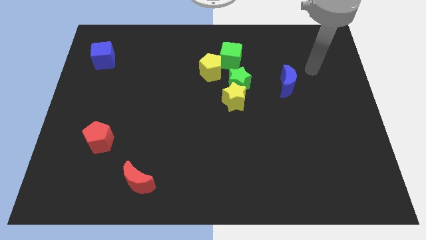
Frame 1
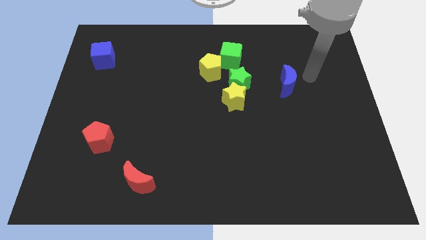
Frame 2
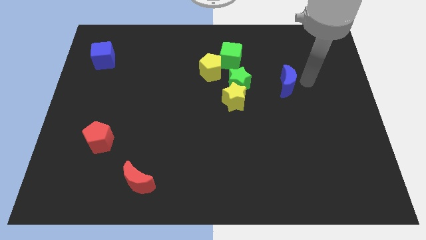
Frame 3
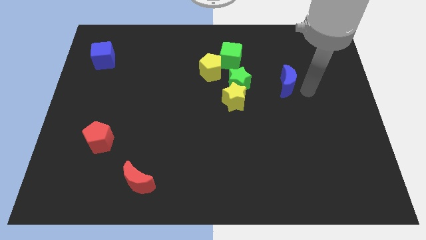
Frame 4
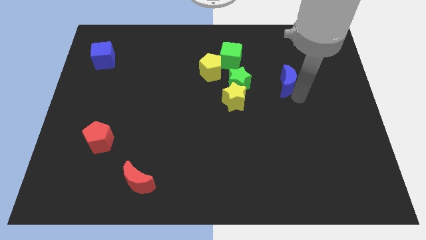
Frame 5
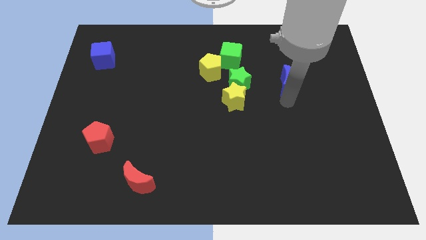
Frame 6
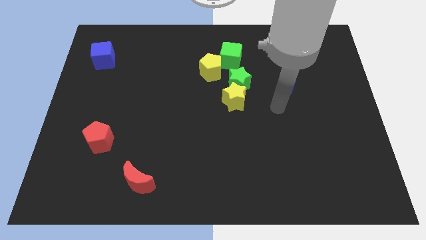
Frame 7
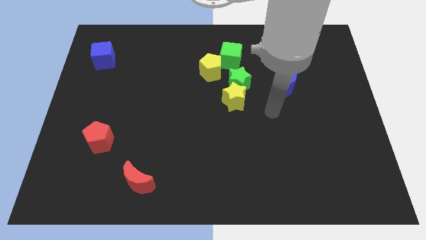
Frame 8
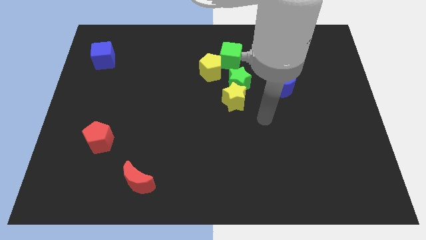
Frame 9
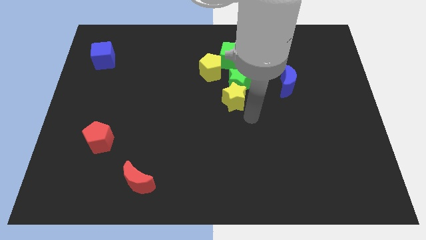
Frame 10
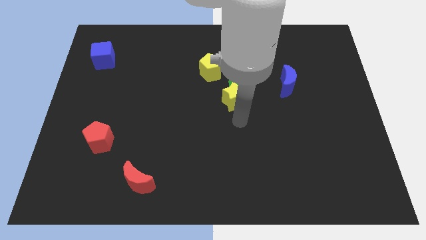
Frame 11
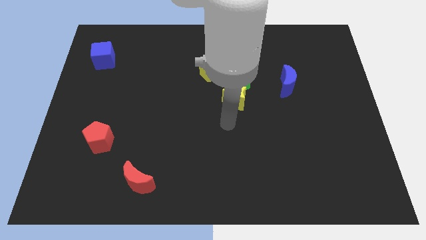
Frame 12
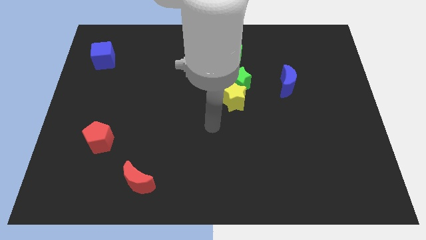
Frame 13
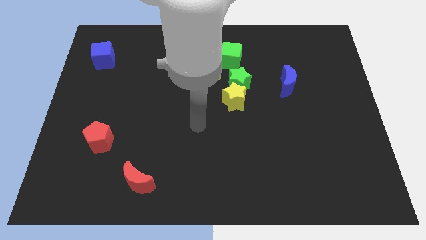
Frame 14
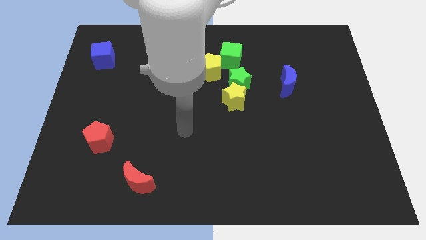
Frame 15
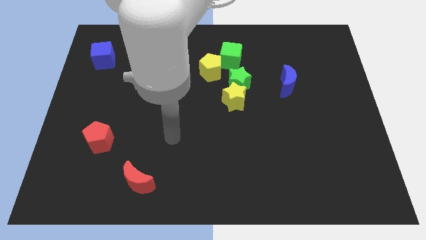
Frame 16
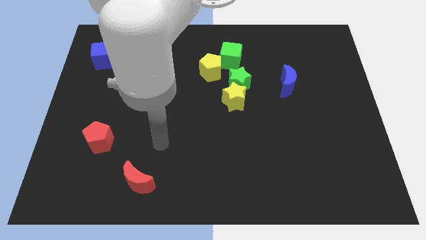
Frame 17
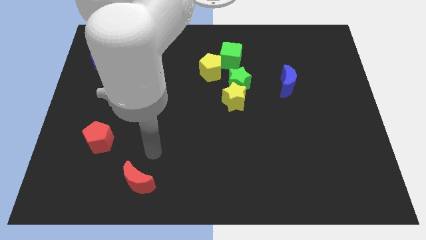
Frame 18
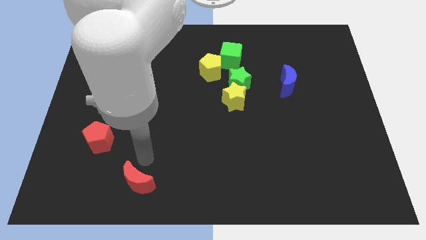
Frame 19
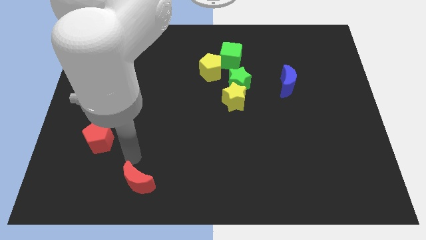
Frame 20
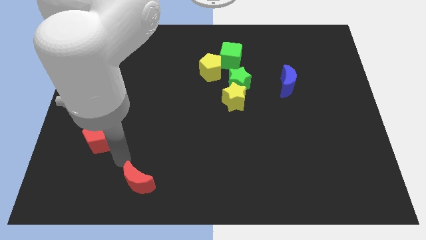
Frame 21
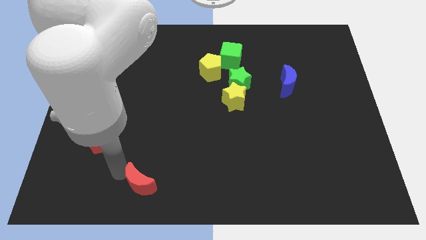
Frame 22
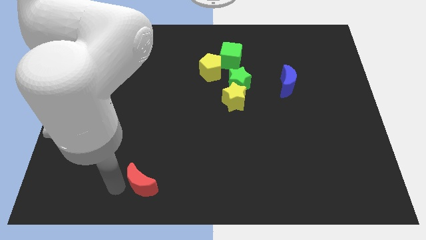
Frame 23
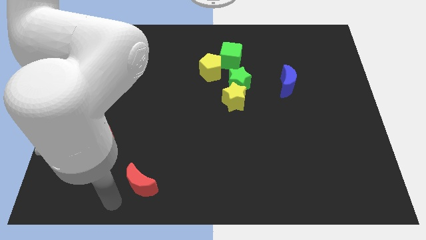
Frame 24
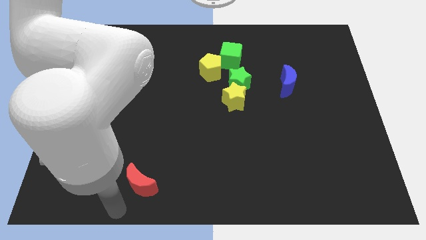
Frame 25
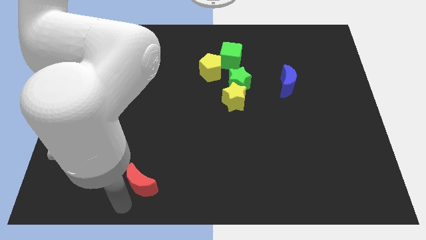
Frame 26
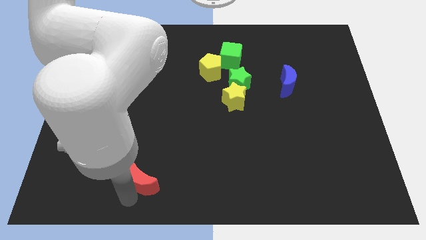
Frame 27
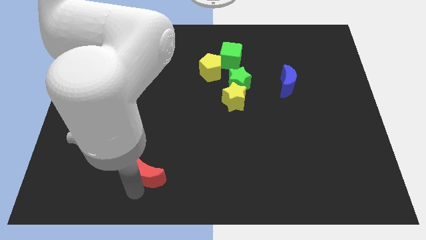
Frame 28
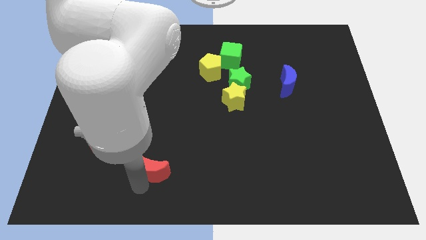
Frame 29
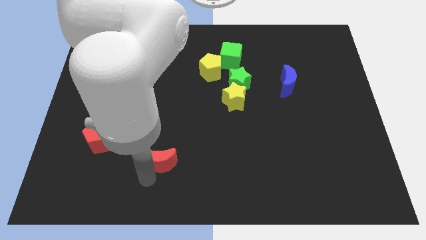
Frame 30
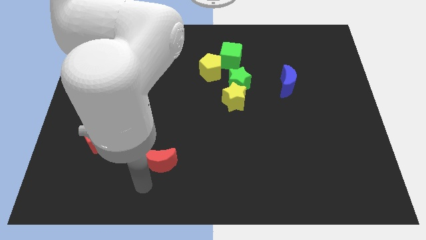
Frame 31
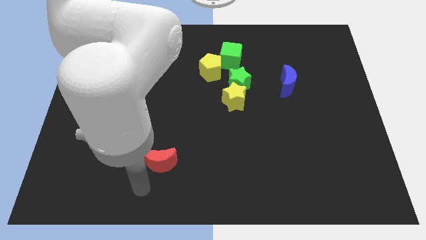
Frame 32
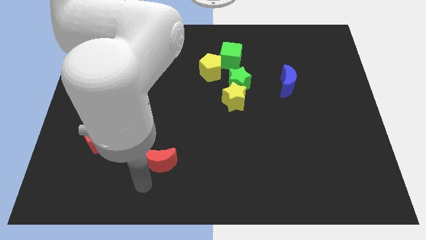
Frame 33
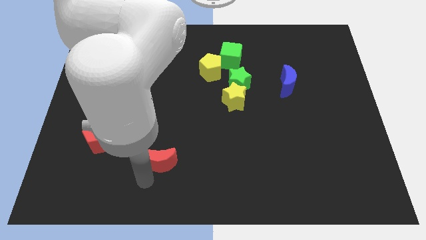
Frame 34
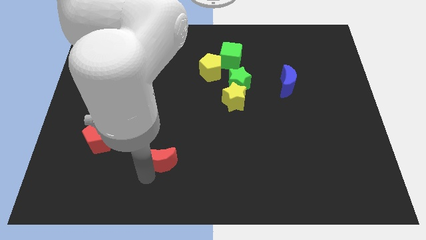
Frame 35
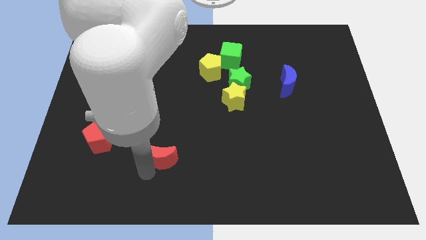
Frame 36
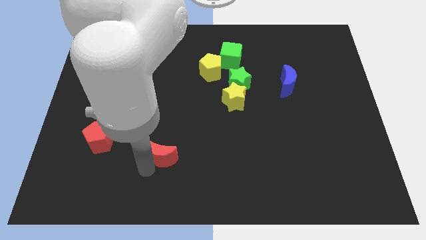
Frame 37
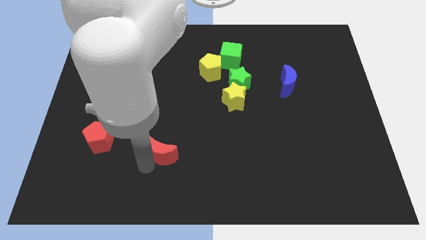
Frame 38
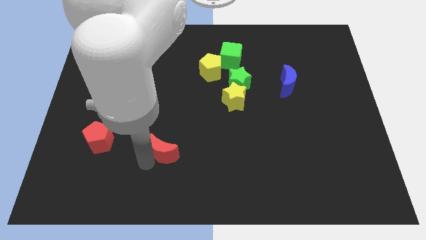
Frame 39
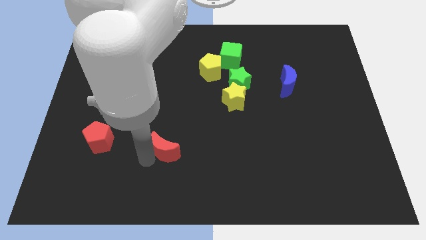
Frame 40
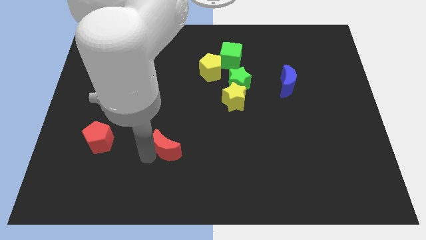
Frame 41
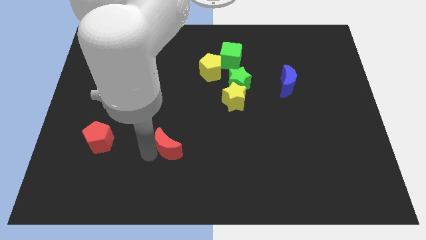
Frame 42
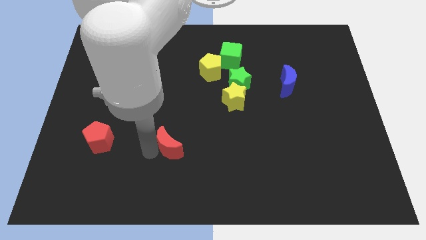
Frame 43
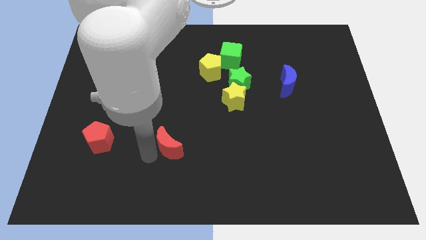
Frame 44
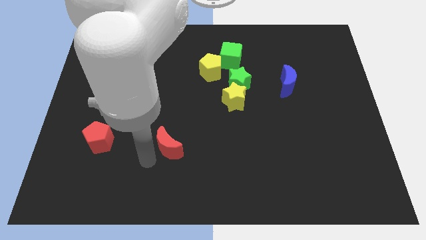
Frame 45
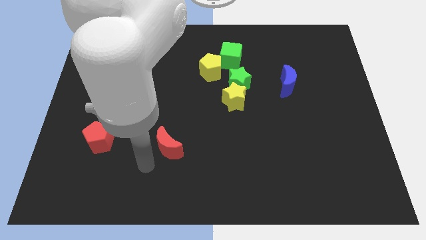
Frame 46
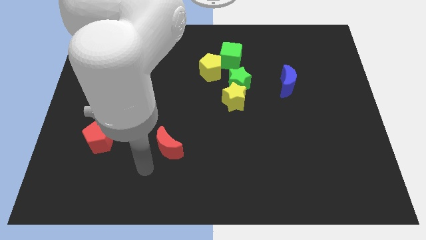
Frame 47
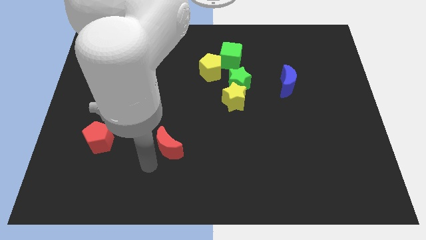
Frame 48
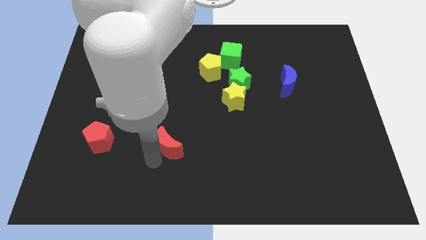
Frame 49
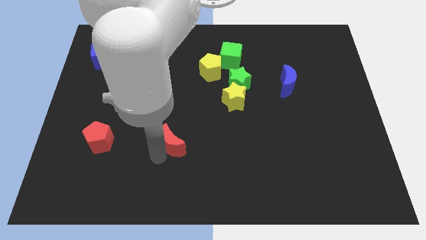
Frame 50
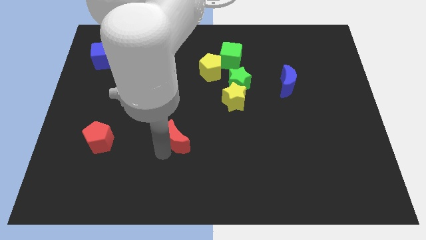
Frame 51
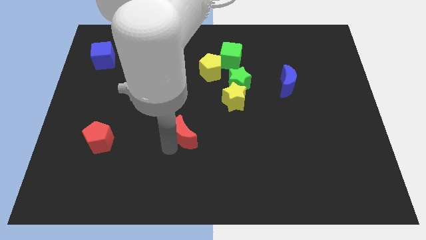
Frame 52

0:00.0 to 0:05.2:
slide the red moon to the middle of the board

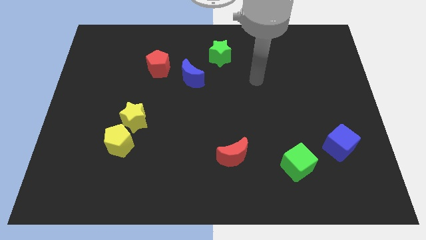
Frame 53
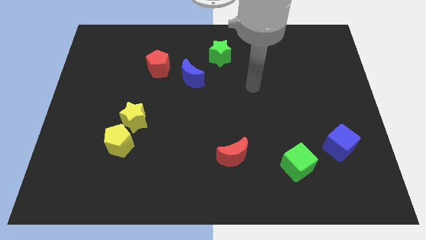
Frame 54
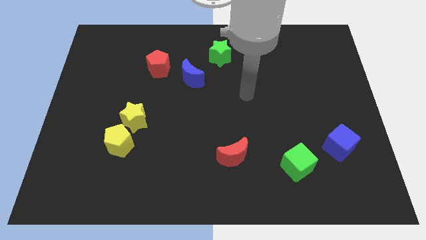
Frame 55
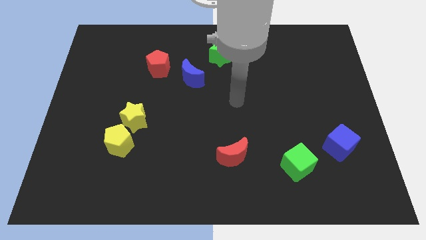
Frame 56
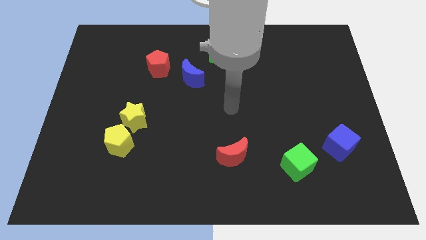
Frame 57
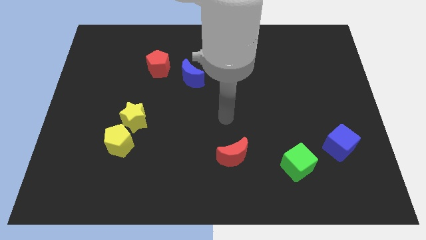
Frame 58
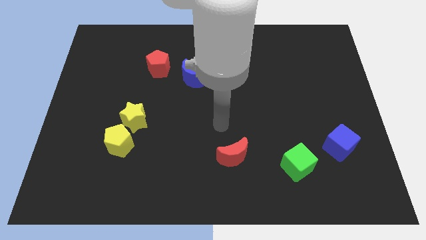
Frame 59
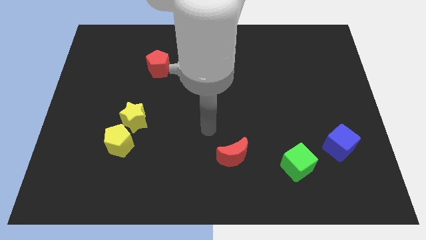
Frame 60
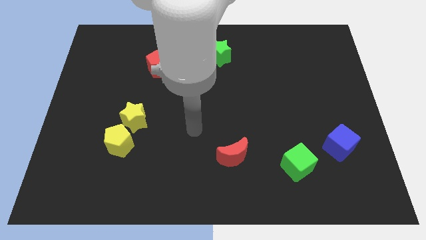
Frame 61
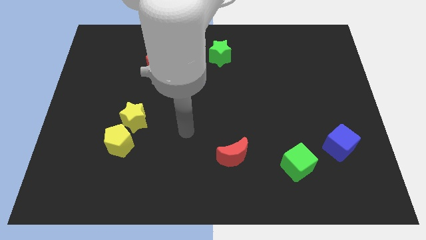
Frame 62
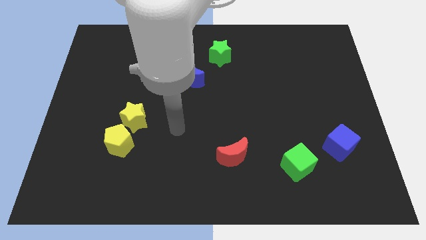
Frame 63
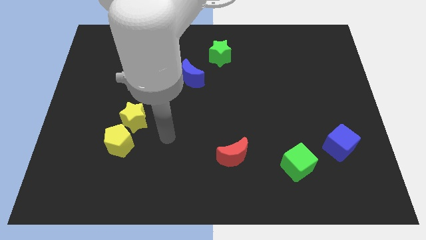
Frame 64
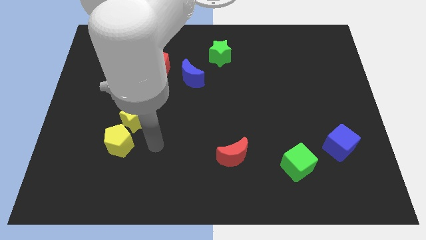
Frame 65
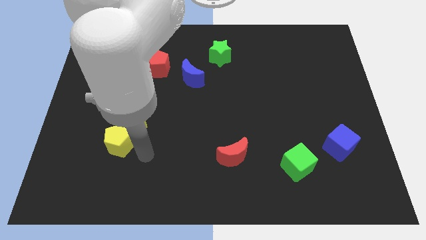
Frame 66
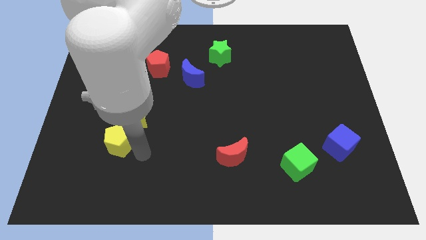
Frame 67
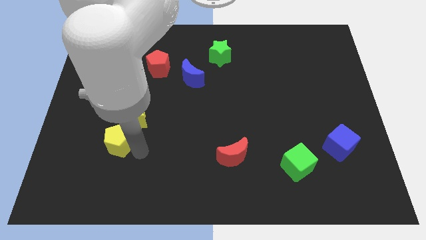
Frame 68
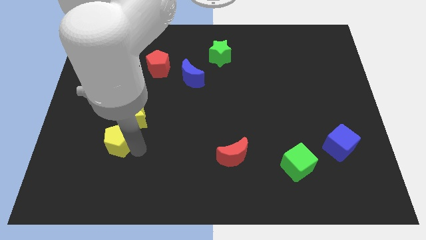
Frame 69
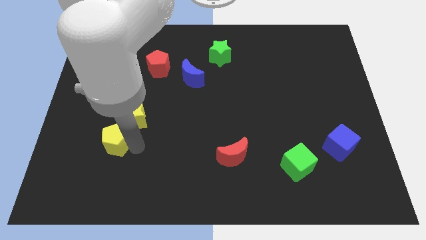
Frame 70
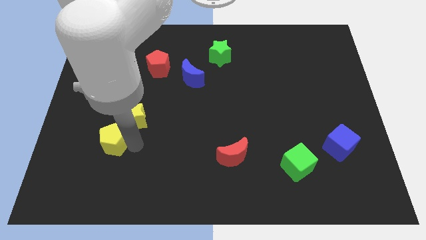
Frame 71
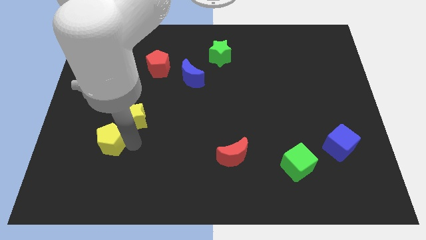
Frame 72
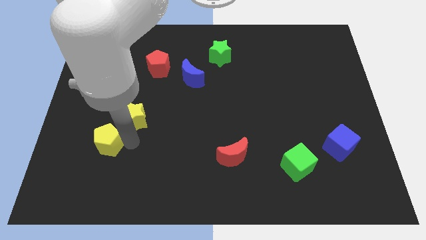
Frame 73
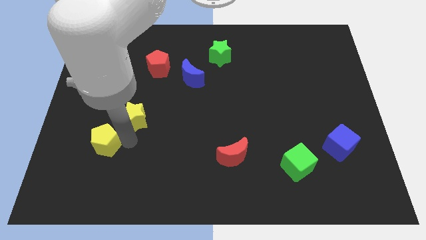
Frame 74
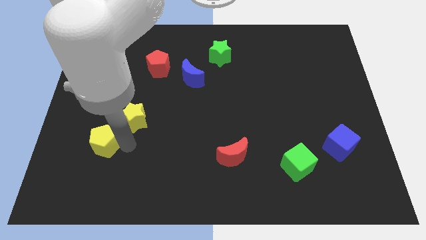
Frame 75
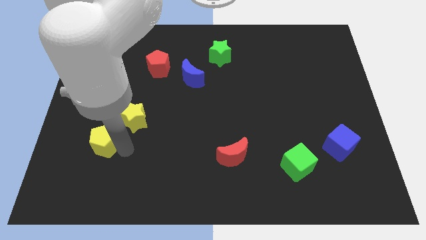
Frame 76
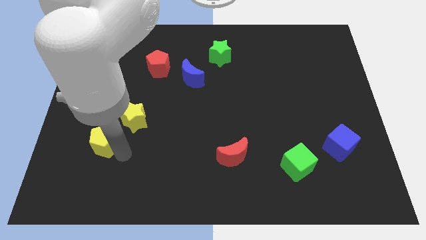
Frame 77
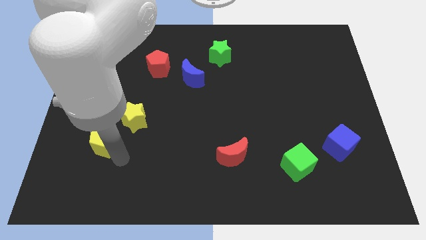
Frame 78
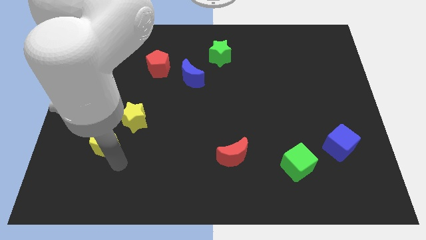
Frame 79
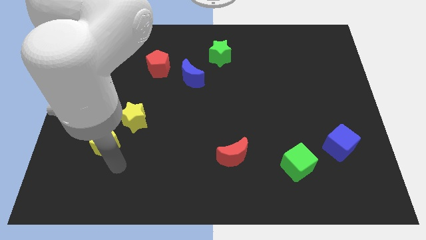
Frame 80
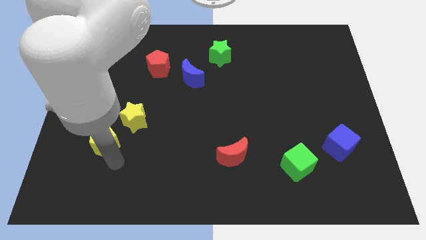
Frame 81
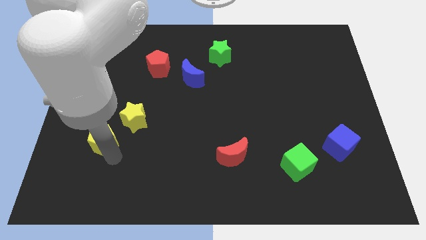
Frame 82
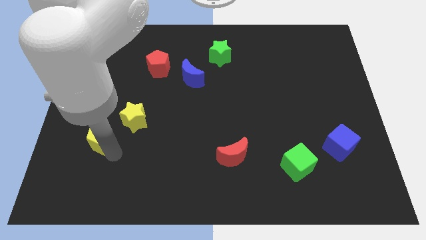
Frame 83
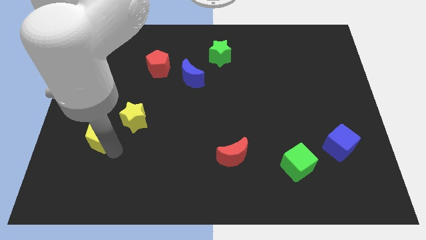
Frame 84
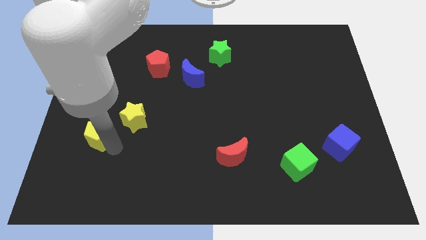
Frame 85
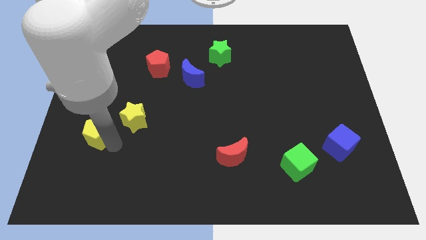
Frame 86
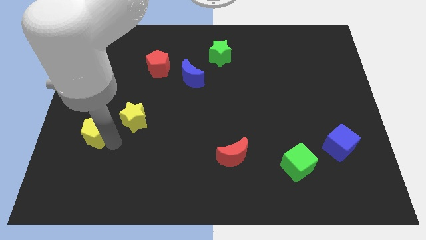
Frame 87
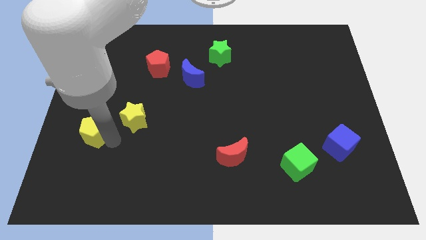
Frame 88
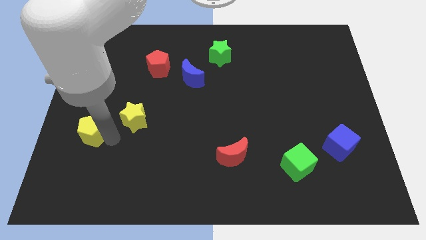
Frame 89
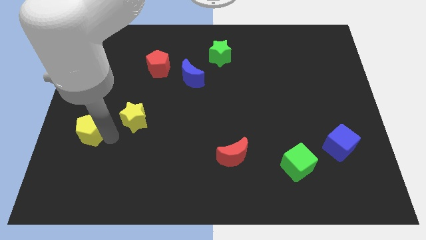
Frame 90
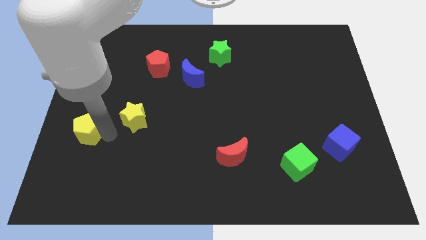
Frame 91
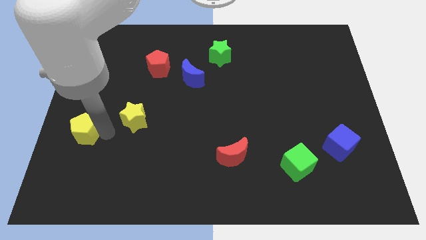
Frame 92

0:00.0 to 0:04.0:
slide the yellow pentagon to the left side
